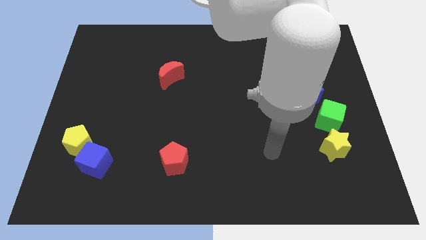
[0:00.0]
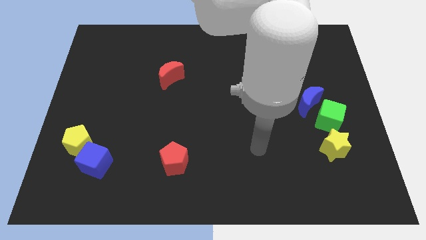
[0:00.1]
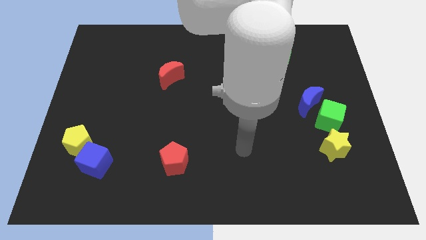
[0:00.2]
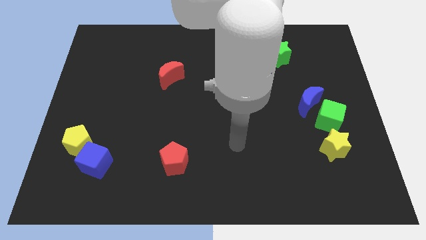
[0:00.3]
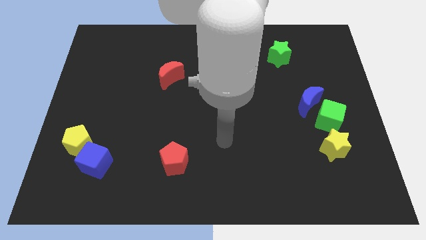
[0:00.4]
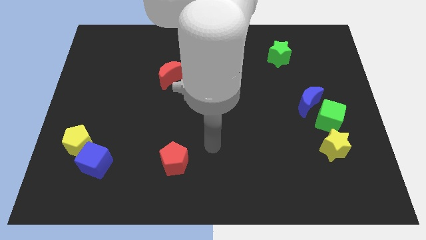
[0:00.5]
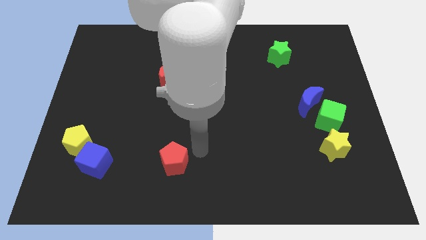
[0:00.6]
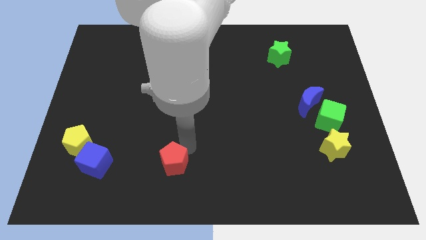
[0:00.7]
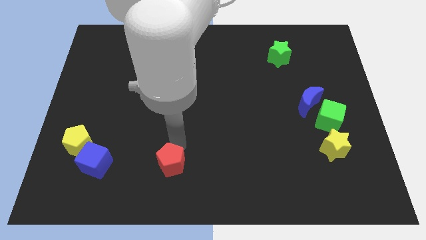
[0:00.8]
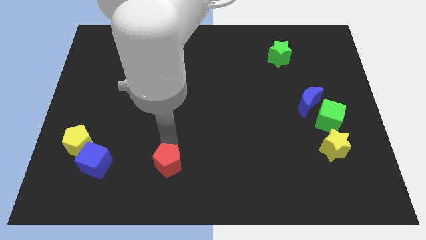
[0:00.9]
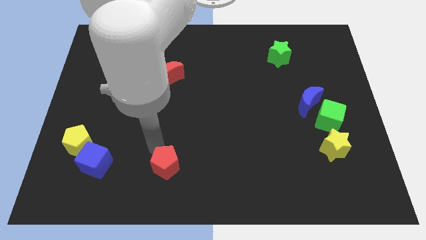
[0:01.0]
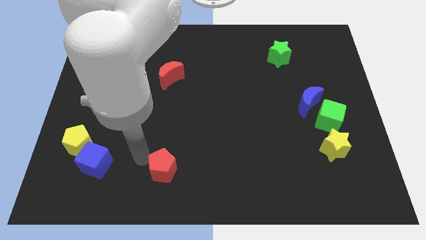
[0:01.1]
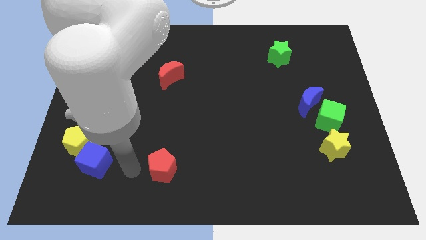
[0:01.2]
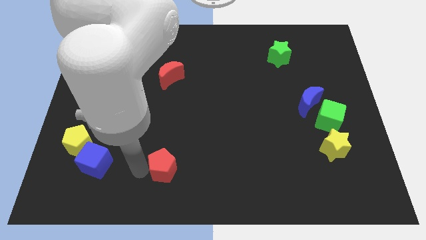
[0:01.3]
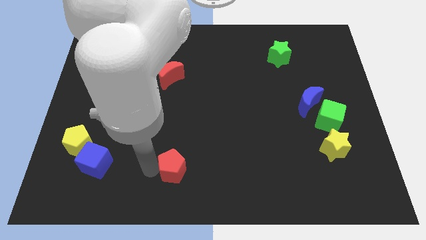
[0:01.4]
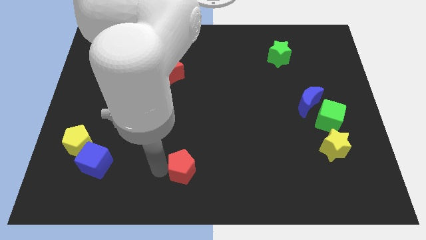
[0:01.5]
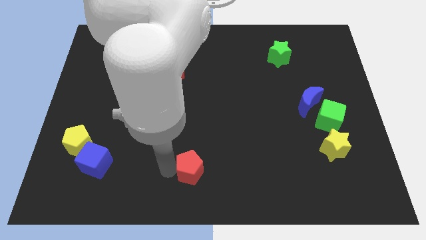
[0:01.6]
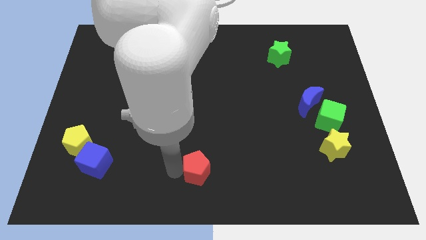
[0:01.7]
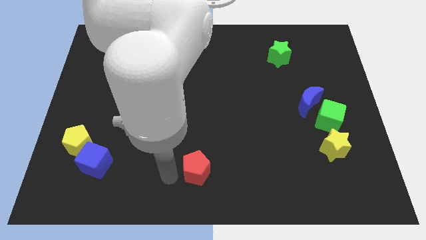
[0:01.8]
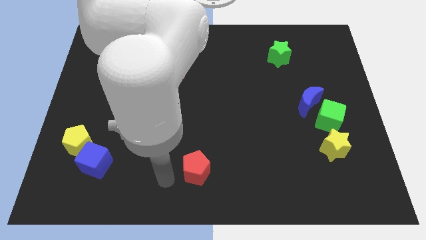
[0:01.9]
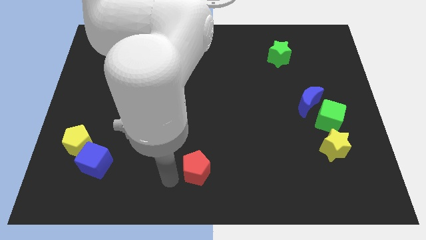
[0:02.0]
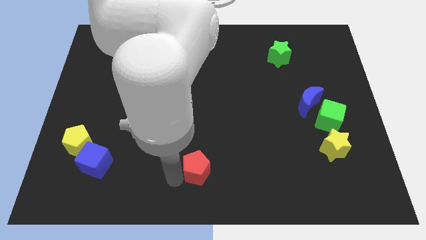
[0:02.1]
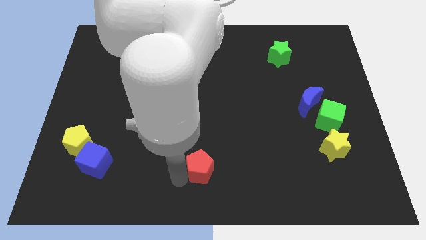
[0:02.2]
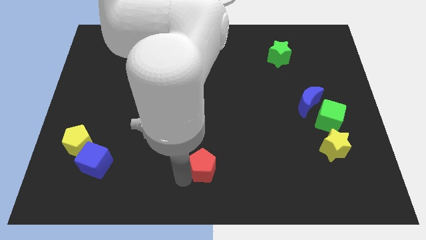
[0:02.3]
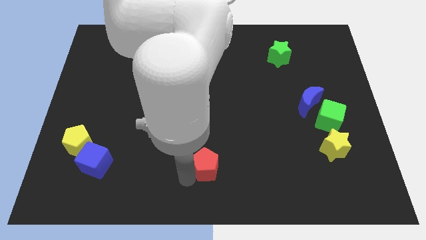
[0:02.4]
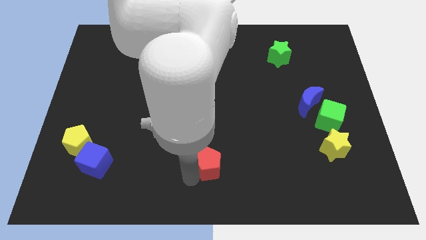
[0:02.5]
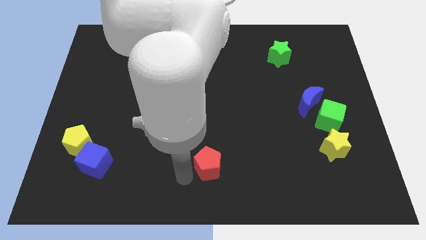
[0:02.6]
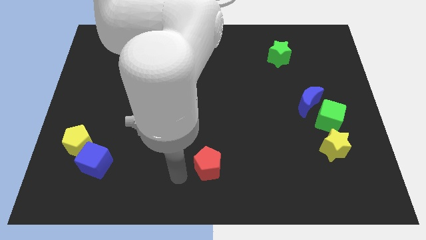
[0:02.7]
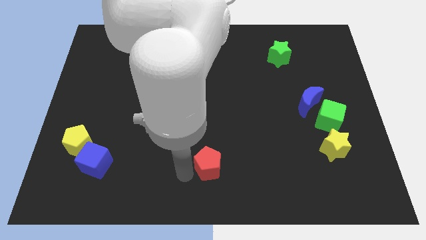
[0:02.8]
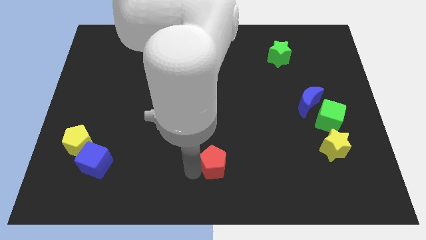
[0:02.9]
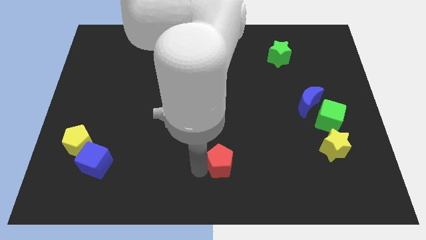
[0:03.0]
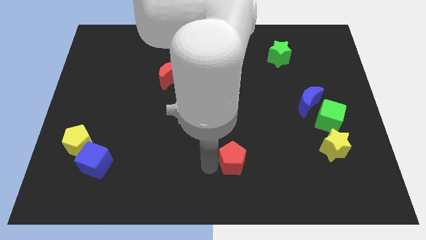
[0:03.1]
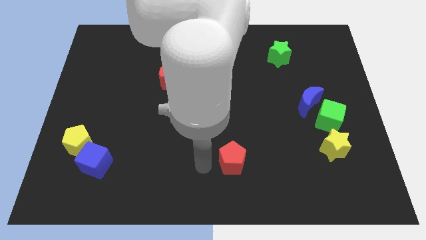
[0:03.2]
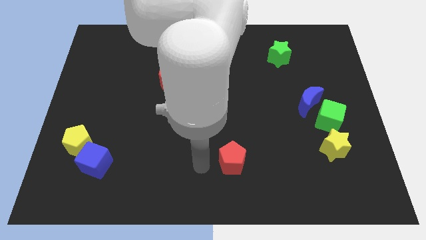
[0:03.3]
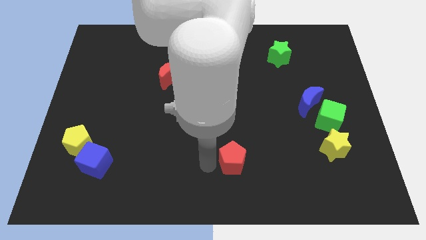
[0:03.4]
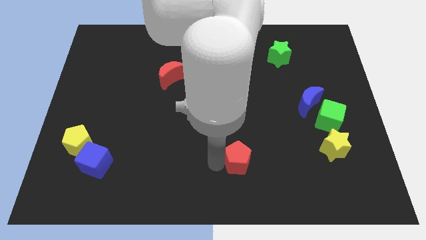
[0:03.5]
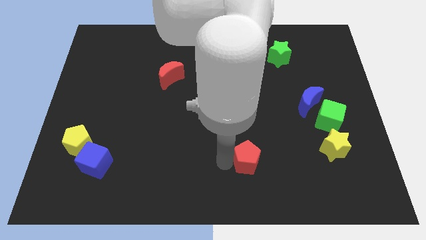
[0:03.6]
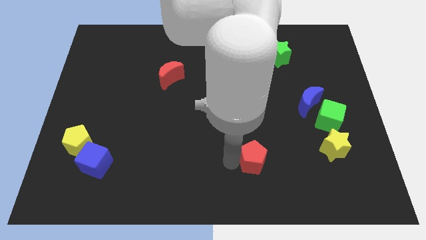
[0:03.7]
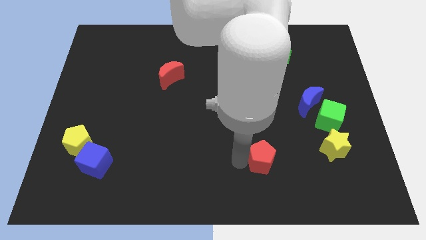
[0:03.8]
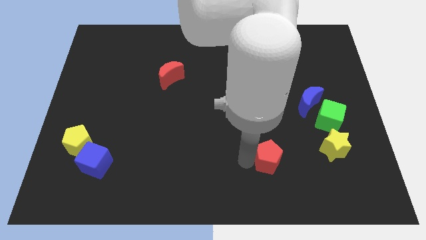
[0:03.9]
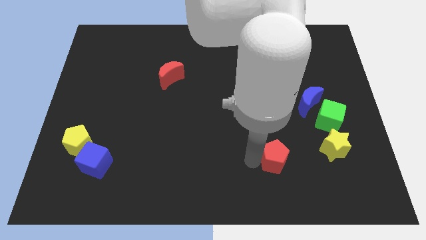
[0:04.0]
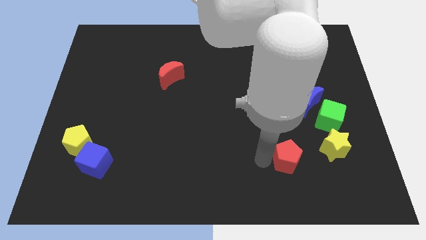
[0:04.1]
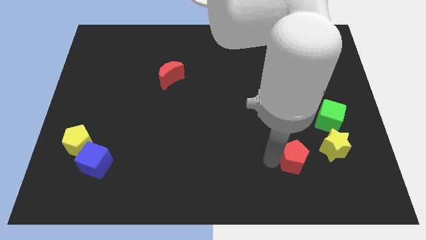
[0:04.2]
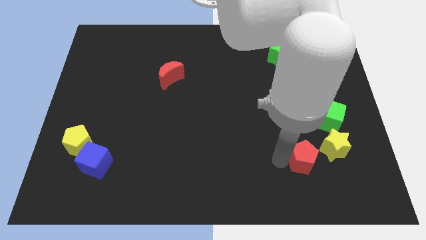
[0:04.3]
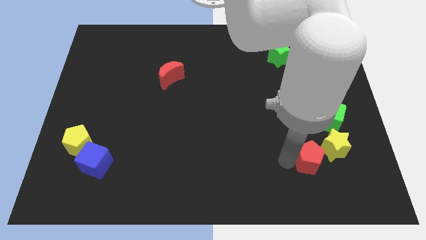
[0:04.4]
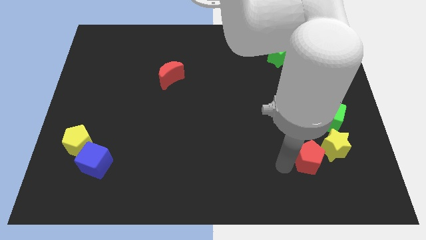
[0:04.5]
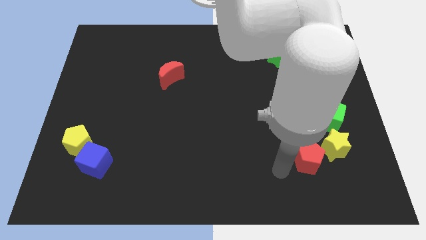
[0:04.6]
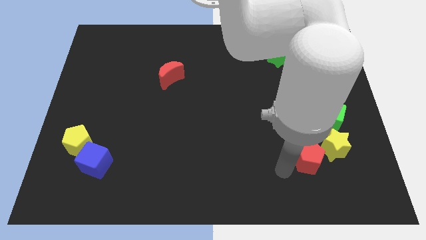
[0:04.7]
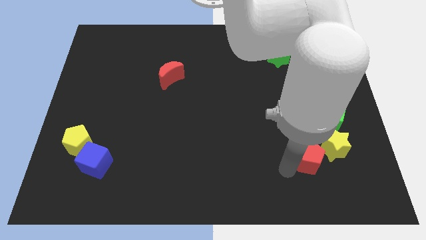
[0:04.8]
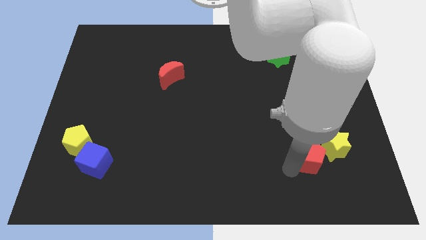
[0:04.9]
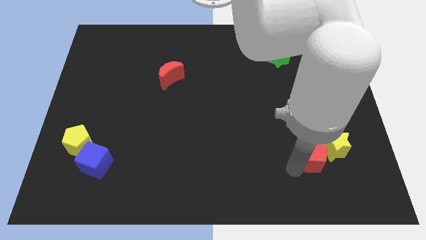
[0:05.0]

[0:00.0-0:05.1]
slide the red pentagon close to the yellow star

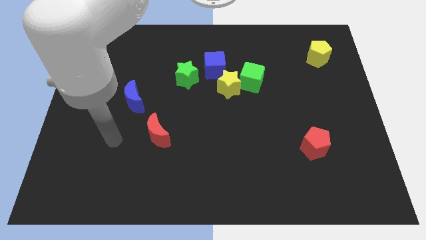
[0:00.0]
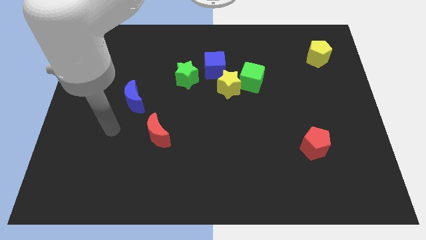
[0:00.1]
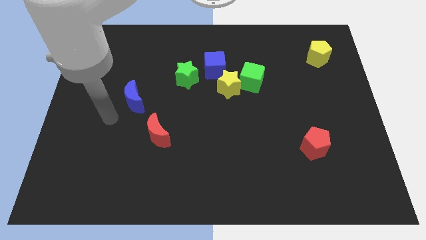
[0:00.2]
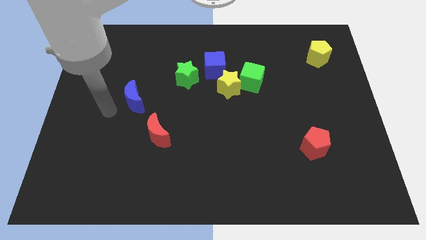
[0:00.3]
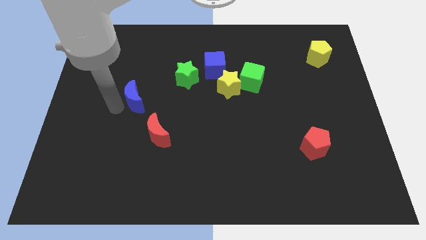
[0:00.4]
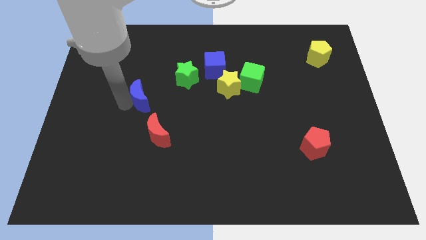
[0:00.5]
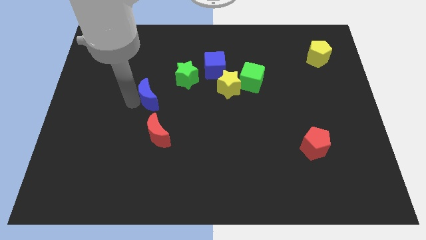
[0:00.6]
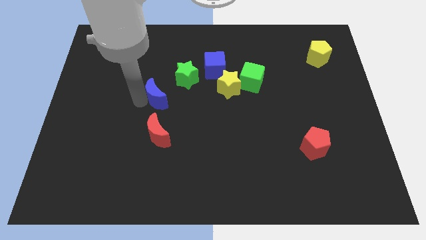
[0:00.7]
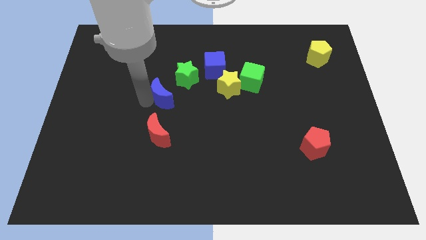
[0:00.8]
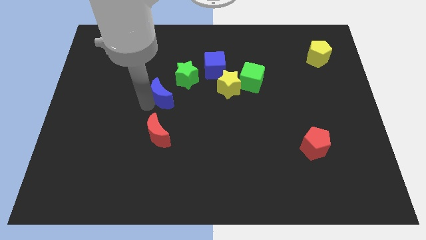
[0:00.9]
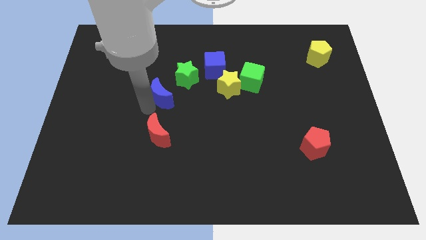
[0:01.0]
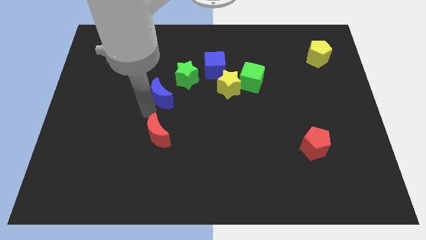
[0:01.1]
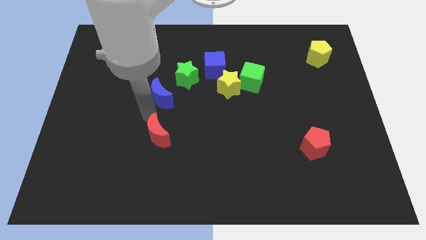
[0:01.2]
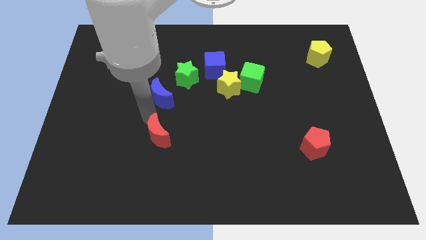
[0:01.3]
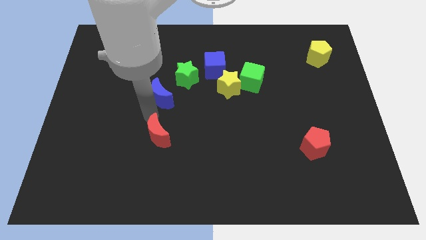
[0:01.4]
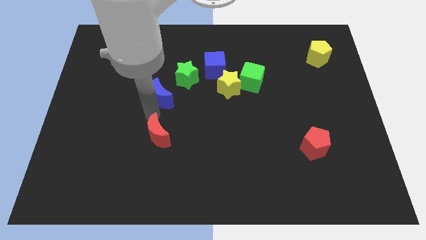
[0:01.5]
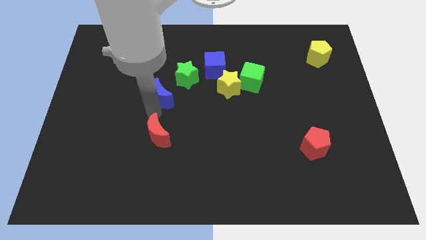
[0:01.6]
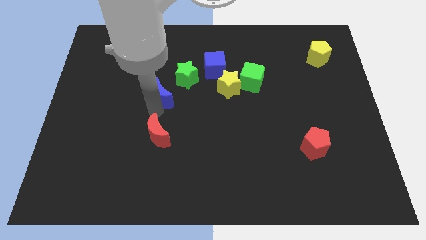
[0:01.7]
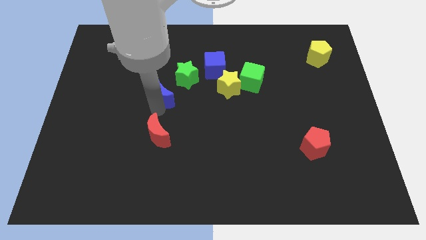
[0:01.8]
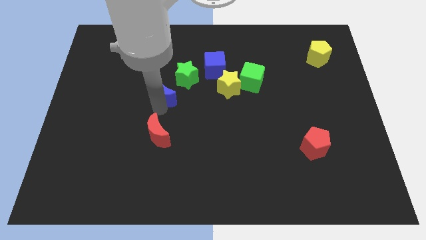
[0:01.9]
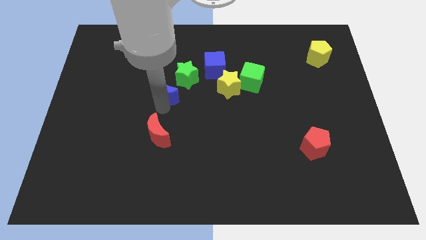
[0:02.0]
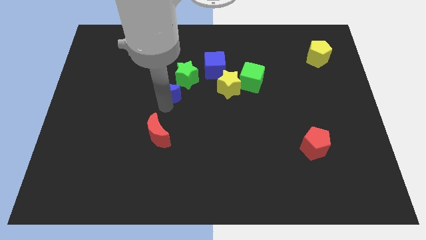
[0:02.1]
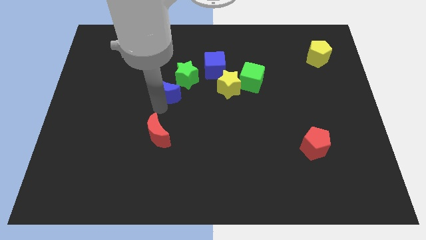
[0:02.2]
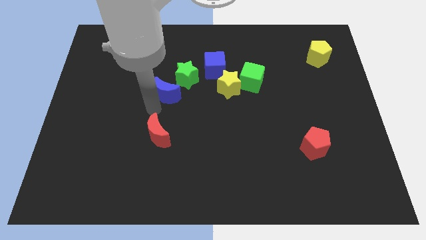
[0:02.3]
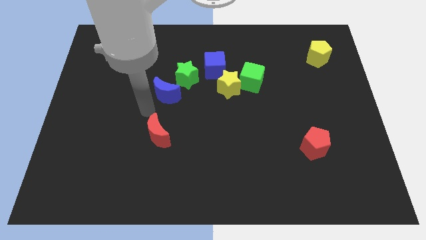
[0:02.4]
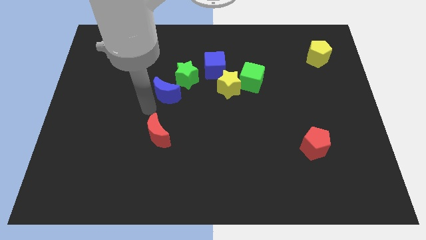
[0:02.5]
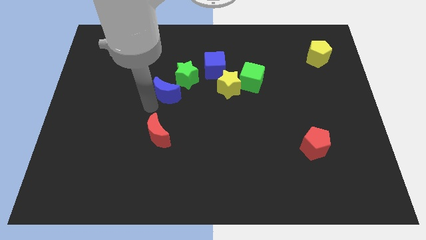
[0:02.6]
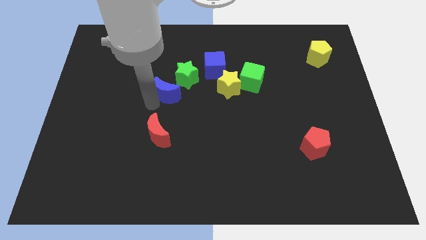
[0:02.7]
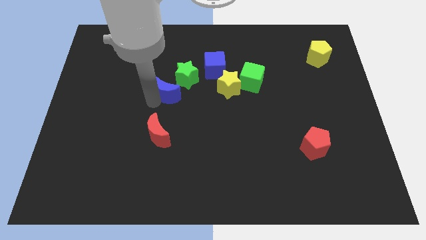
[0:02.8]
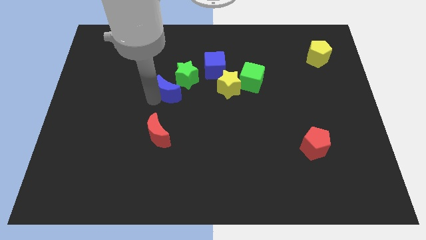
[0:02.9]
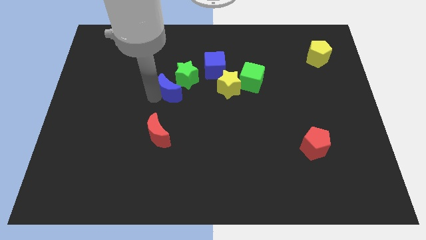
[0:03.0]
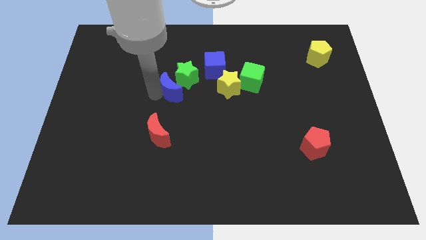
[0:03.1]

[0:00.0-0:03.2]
move the blue moon to the green star
